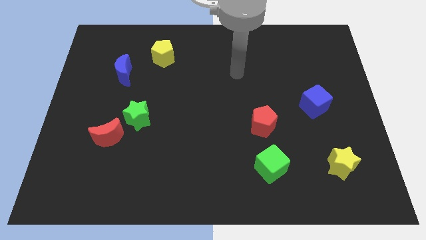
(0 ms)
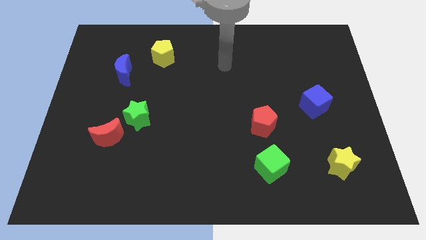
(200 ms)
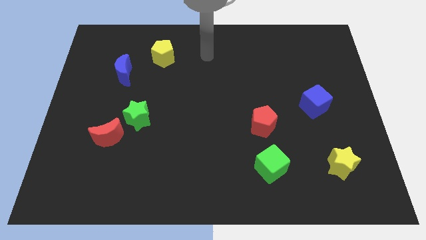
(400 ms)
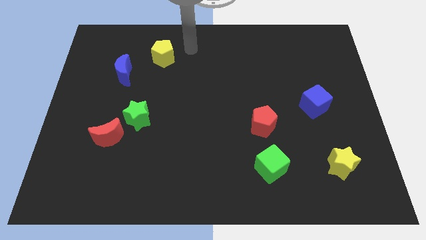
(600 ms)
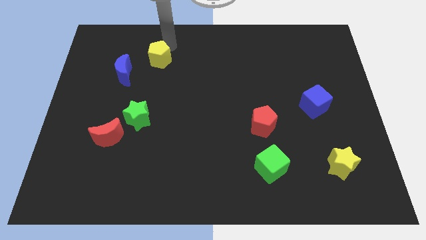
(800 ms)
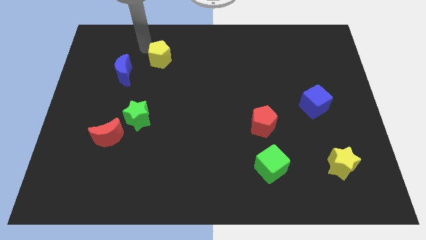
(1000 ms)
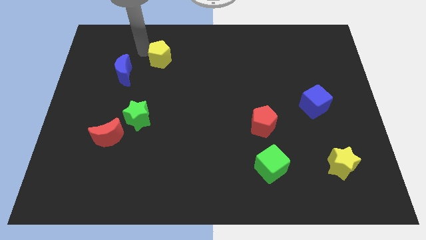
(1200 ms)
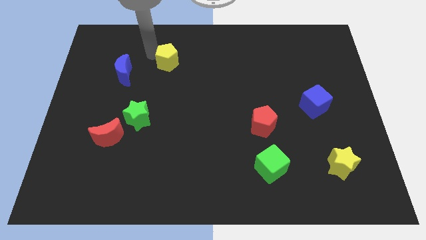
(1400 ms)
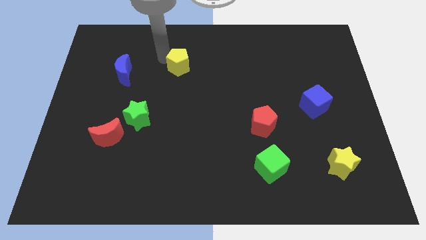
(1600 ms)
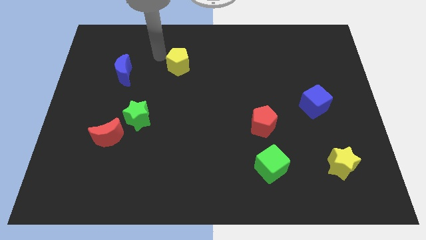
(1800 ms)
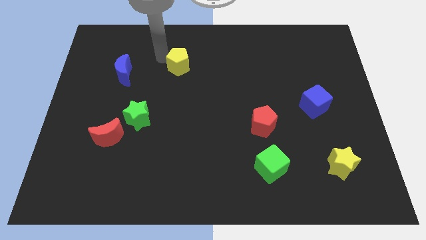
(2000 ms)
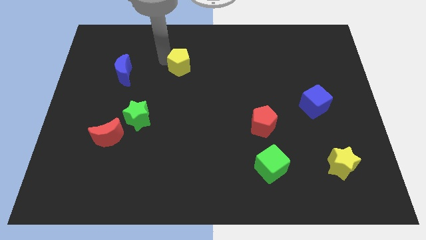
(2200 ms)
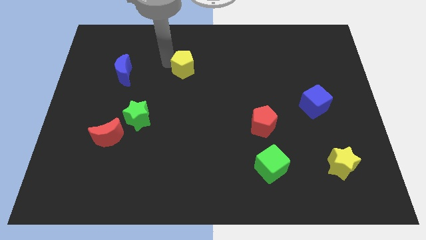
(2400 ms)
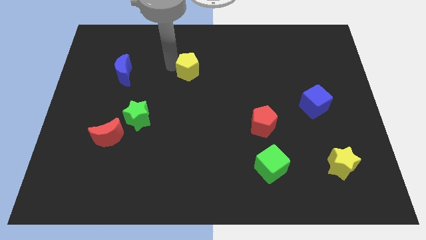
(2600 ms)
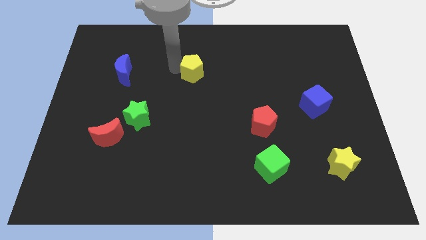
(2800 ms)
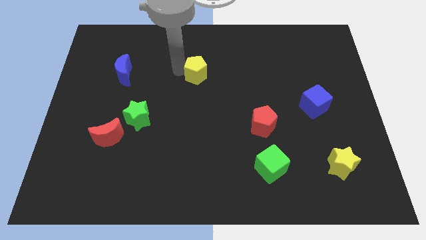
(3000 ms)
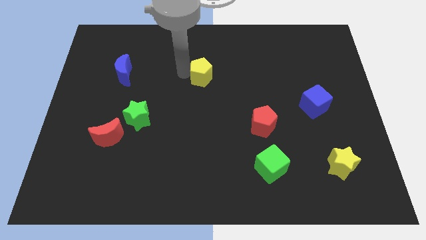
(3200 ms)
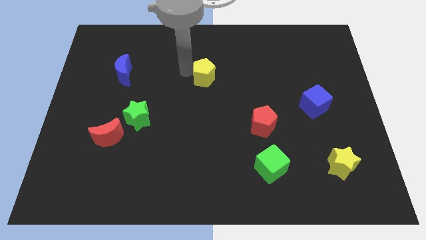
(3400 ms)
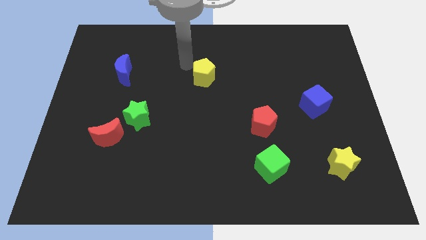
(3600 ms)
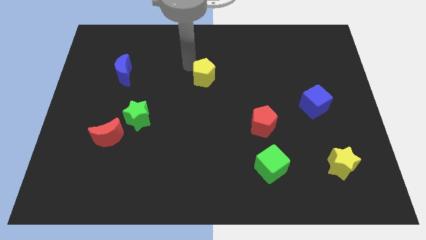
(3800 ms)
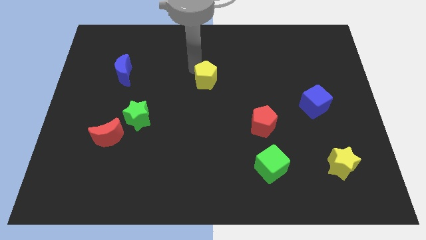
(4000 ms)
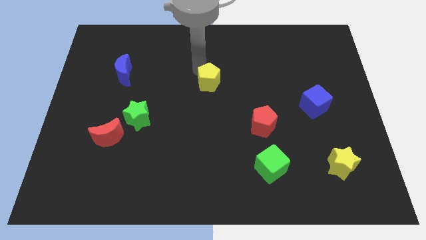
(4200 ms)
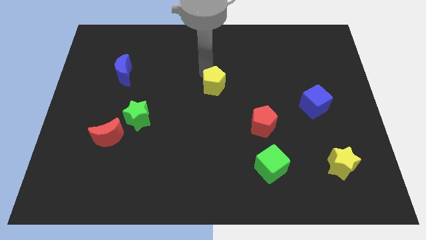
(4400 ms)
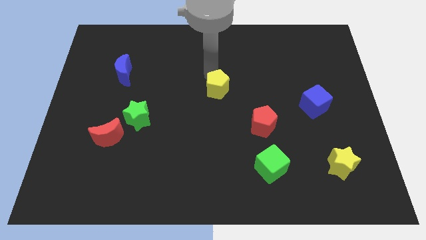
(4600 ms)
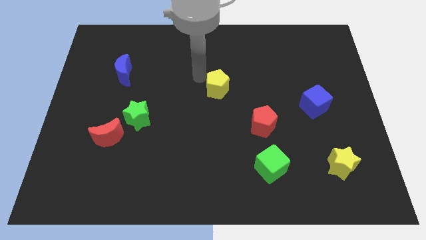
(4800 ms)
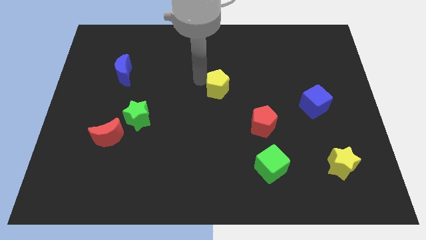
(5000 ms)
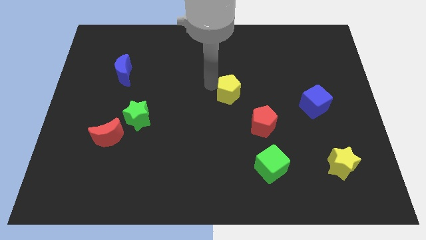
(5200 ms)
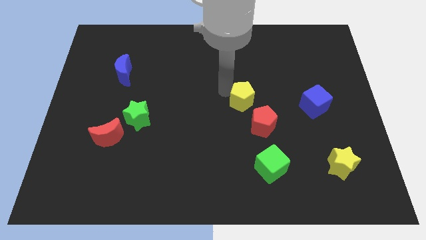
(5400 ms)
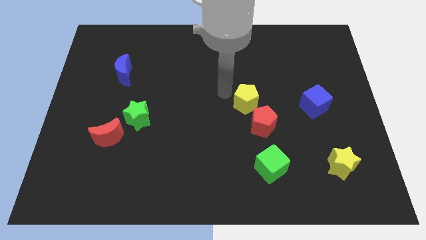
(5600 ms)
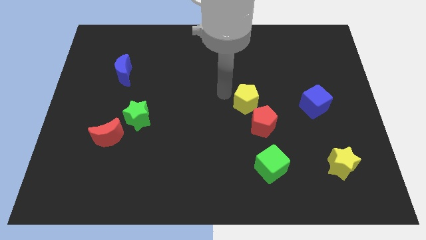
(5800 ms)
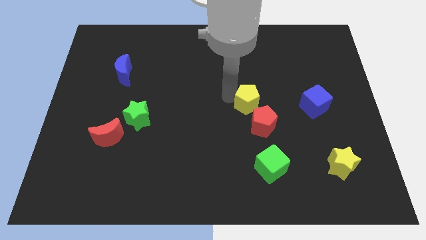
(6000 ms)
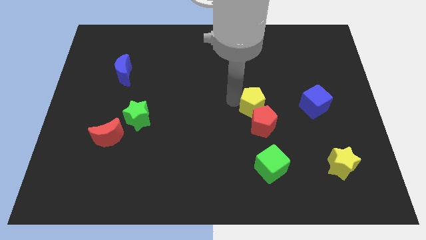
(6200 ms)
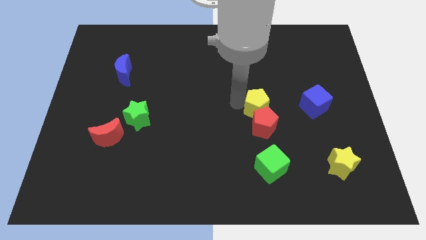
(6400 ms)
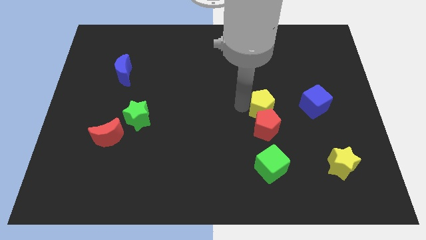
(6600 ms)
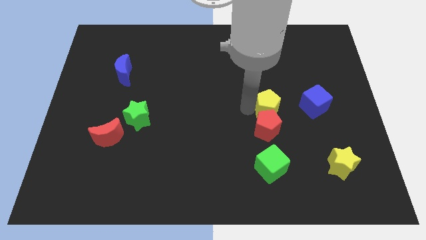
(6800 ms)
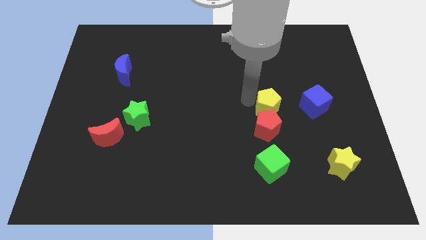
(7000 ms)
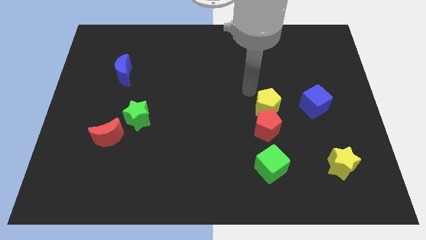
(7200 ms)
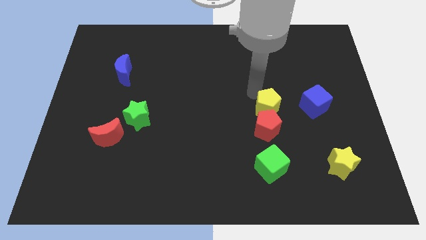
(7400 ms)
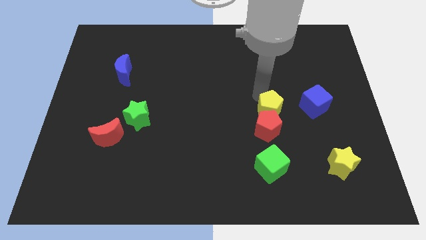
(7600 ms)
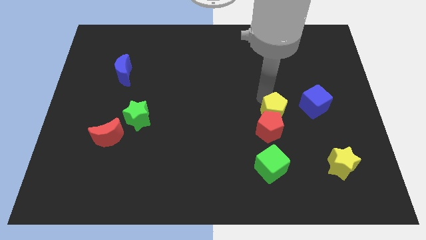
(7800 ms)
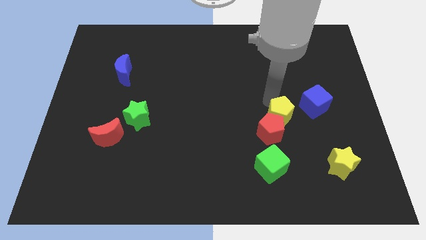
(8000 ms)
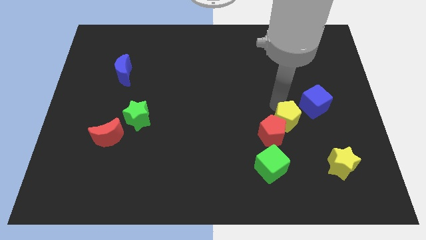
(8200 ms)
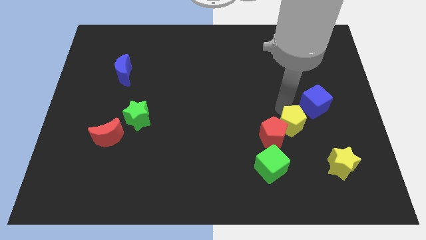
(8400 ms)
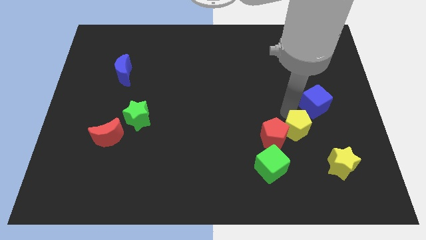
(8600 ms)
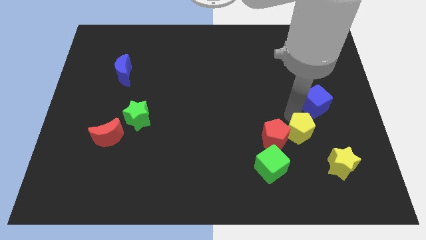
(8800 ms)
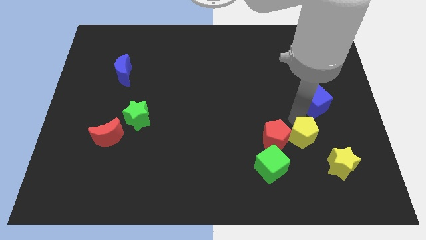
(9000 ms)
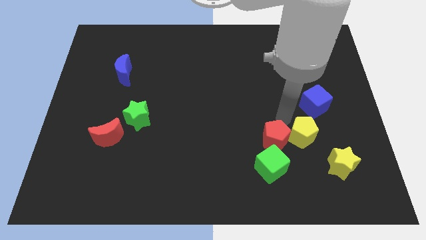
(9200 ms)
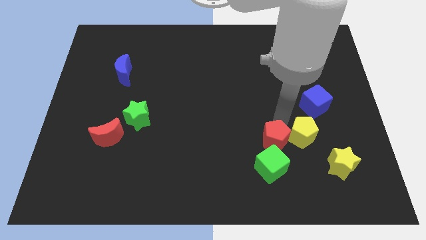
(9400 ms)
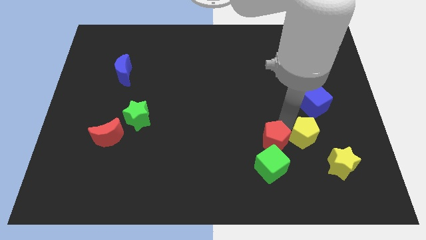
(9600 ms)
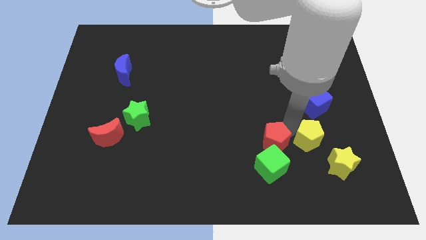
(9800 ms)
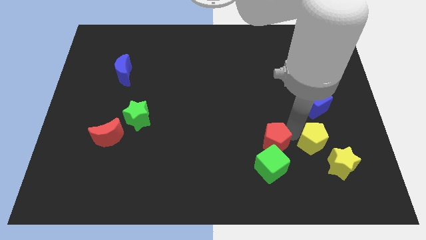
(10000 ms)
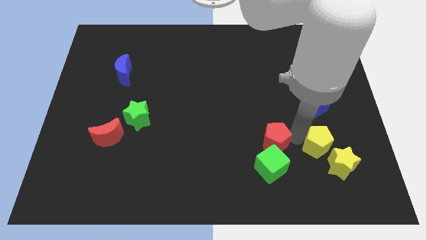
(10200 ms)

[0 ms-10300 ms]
slide the yellow pentagon next to the yellow star

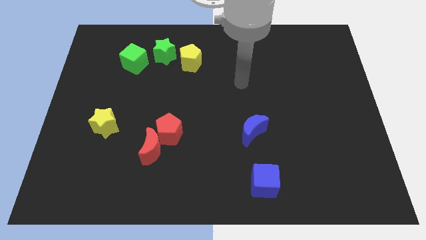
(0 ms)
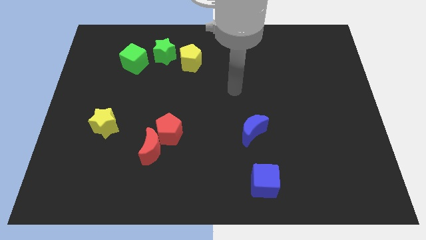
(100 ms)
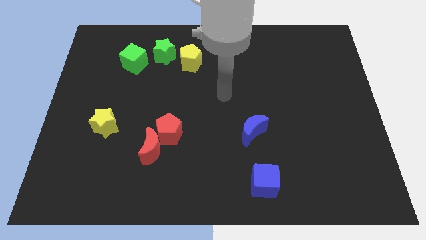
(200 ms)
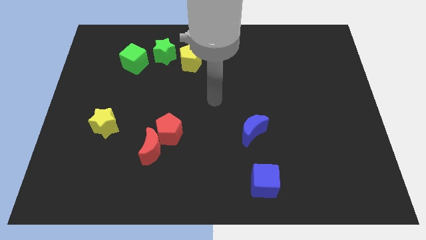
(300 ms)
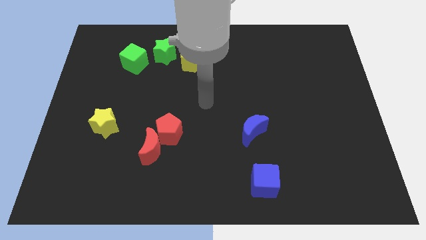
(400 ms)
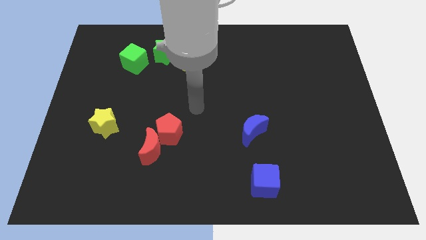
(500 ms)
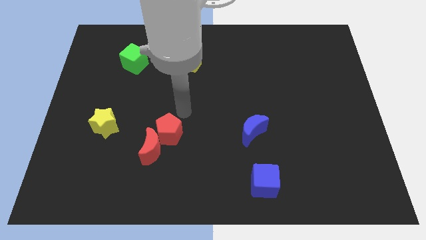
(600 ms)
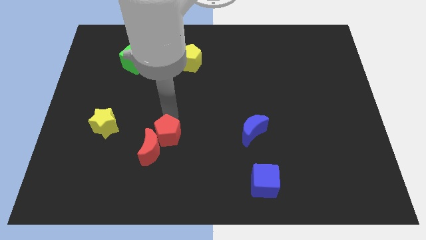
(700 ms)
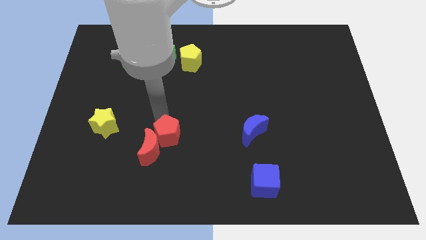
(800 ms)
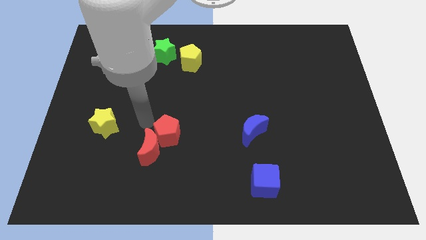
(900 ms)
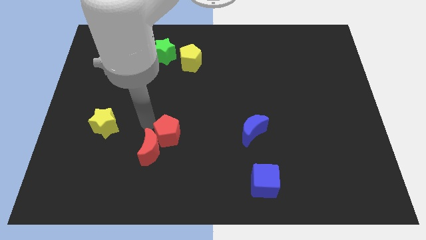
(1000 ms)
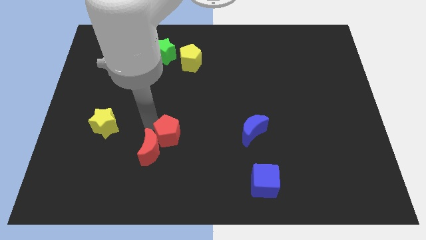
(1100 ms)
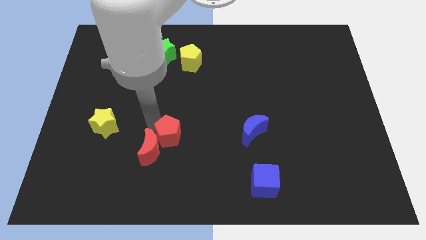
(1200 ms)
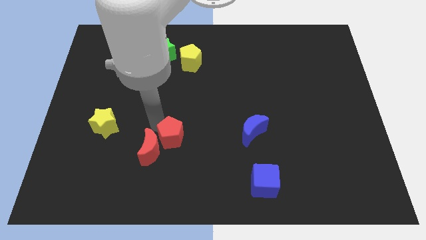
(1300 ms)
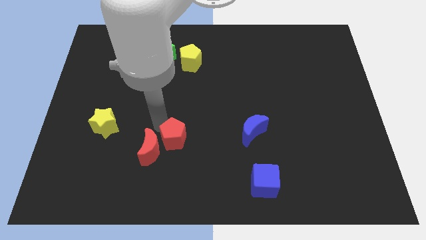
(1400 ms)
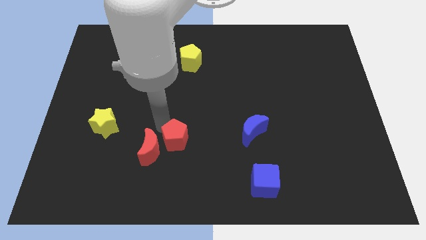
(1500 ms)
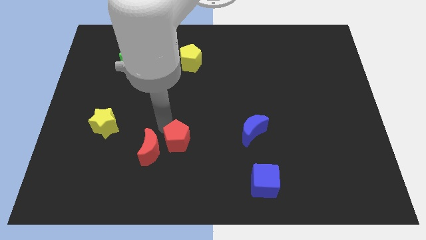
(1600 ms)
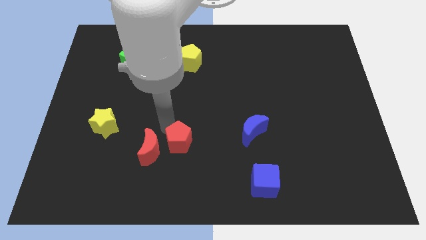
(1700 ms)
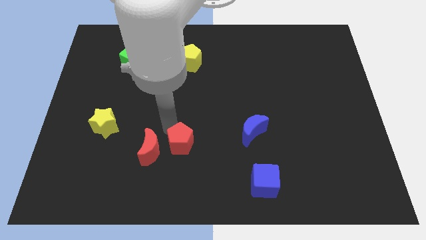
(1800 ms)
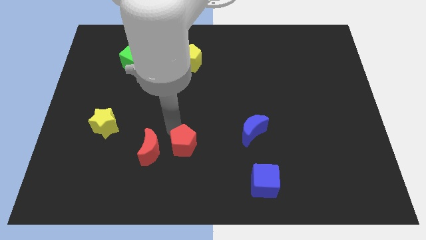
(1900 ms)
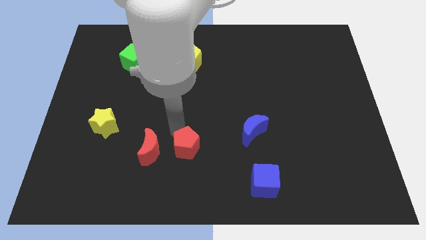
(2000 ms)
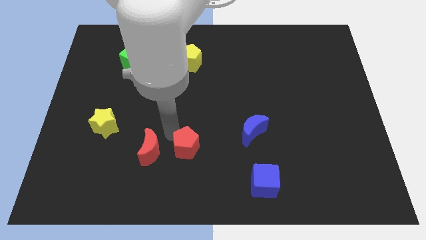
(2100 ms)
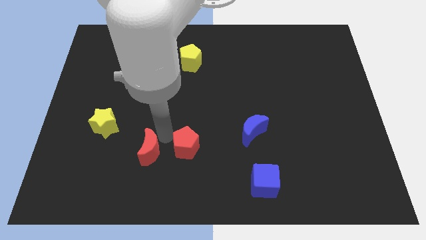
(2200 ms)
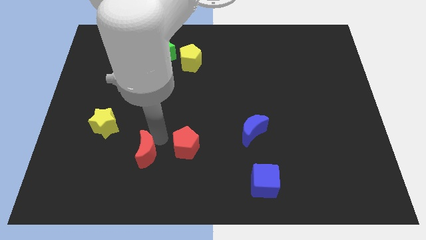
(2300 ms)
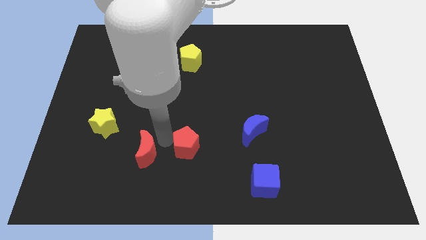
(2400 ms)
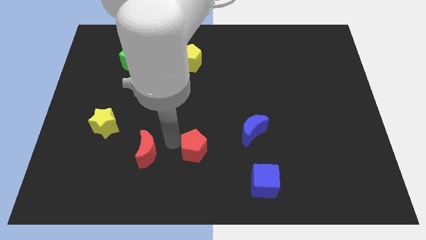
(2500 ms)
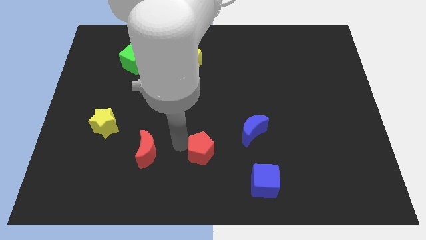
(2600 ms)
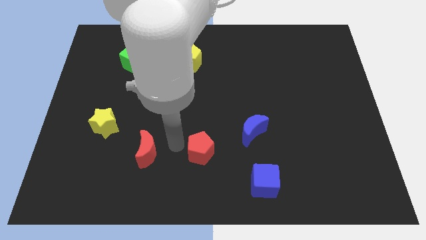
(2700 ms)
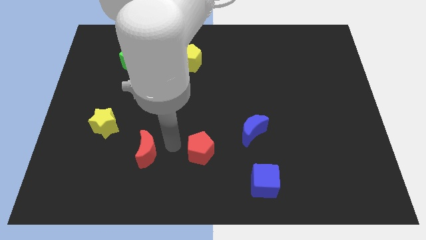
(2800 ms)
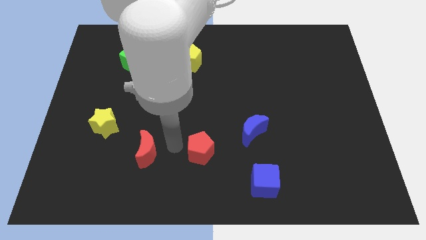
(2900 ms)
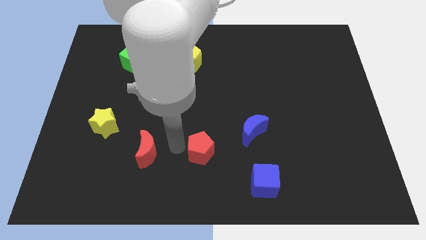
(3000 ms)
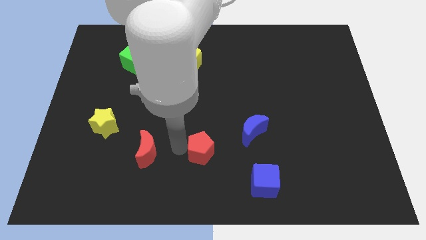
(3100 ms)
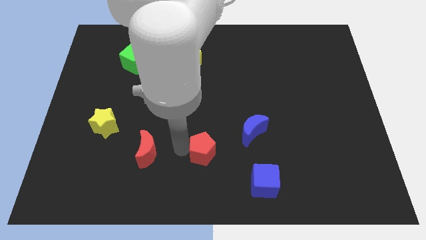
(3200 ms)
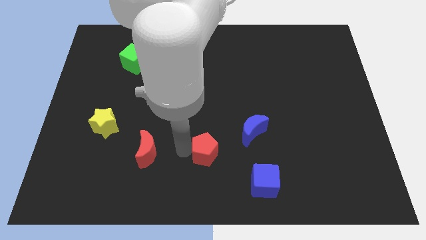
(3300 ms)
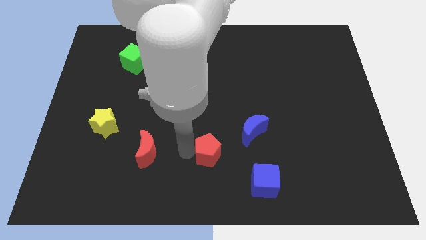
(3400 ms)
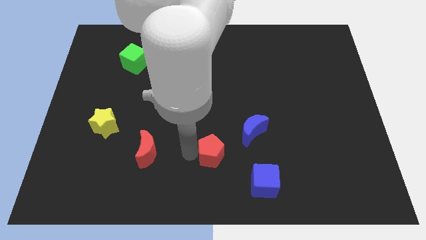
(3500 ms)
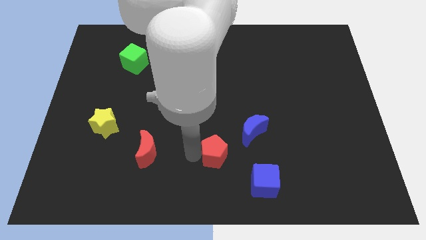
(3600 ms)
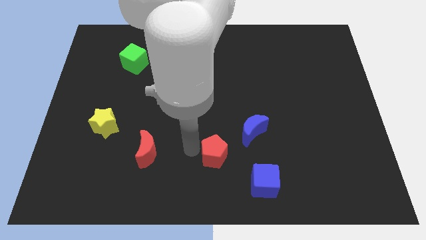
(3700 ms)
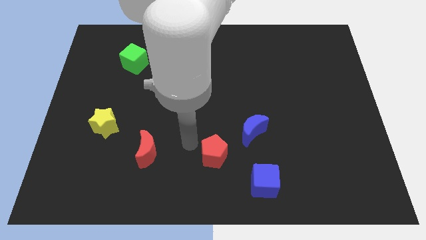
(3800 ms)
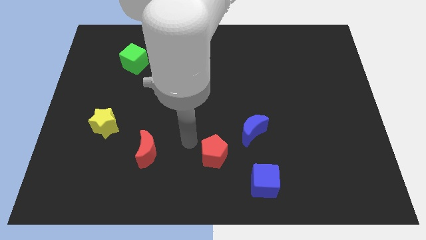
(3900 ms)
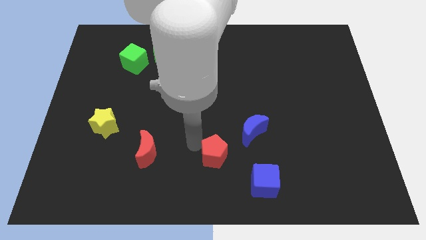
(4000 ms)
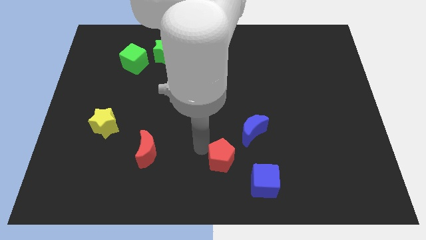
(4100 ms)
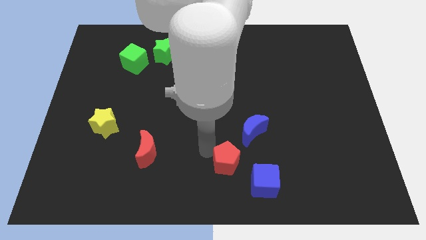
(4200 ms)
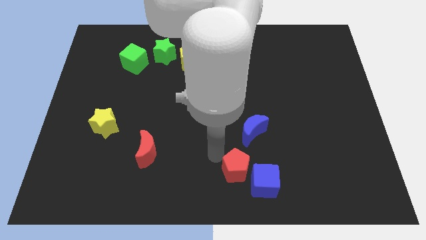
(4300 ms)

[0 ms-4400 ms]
move the red pentagon next to the blue cube
